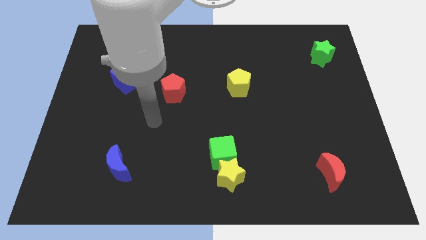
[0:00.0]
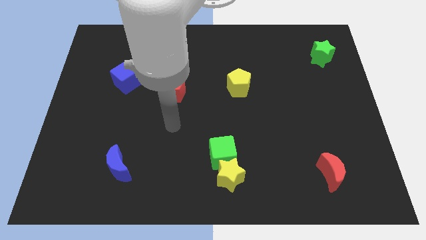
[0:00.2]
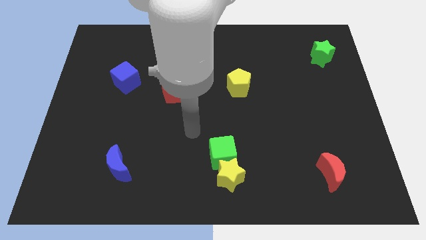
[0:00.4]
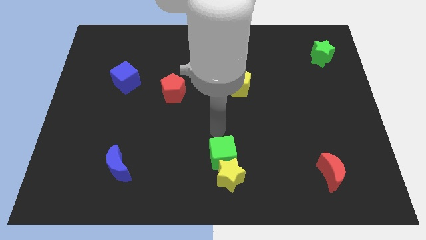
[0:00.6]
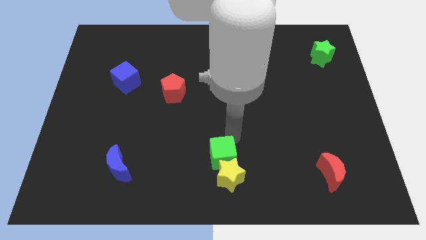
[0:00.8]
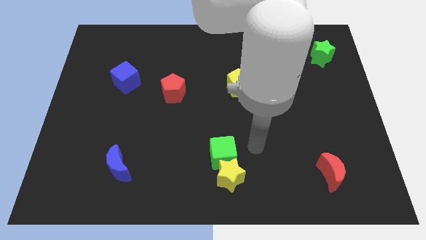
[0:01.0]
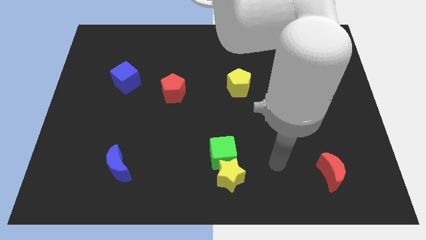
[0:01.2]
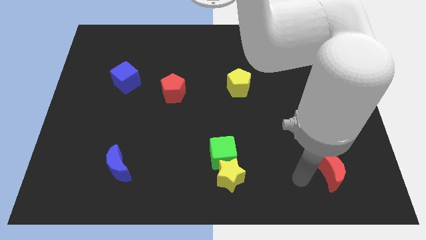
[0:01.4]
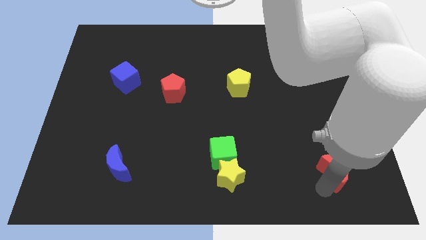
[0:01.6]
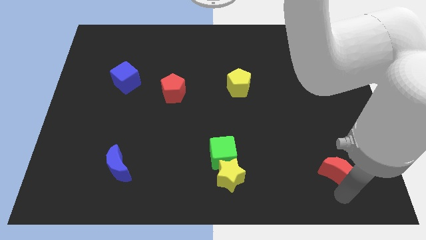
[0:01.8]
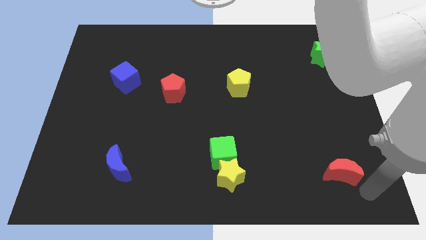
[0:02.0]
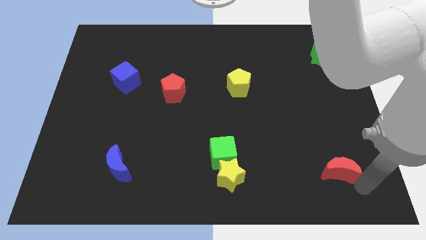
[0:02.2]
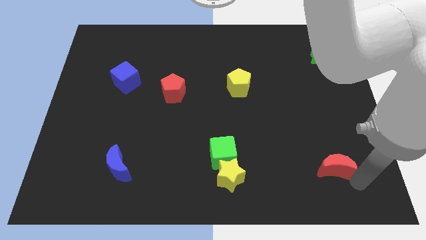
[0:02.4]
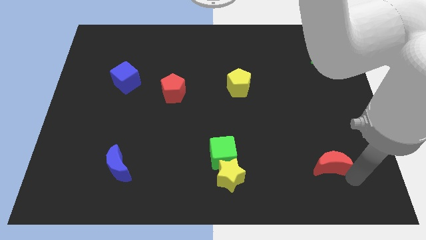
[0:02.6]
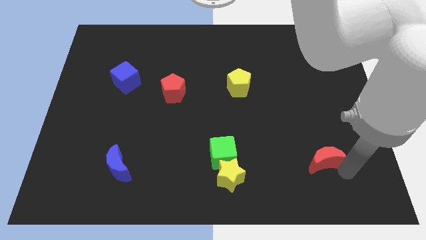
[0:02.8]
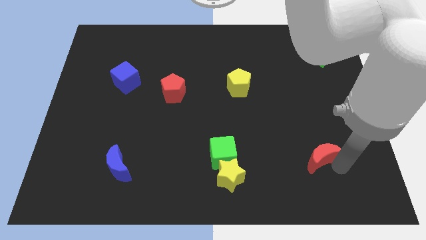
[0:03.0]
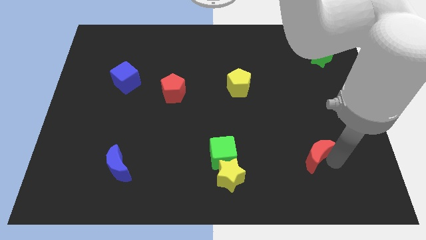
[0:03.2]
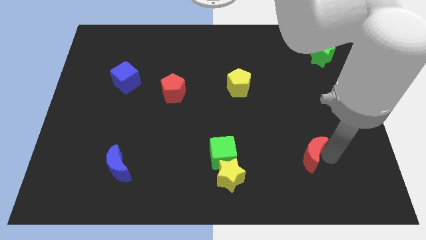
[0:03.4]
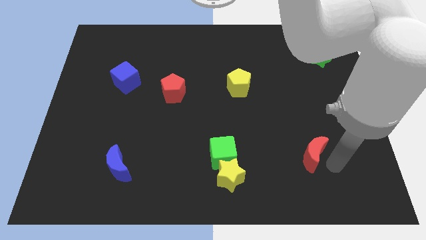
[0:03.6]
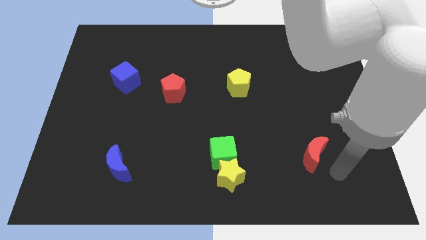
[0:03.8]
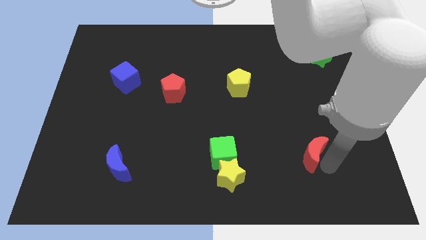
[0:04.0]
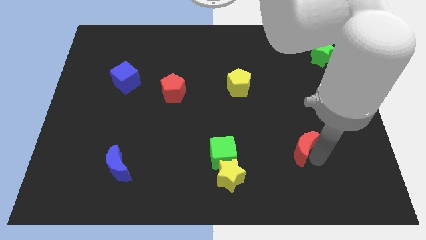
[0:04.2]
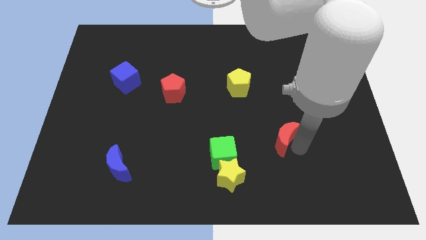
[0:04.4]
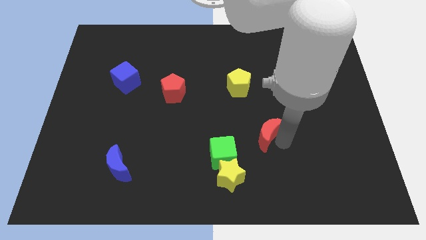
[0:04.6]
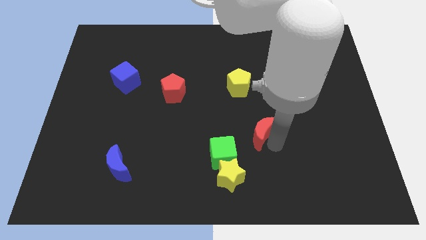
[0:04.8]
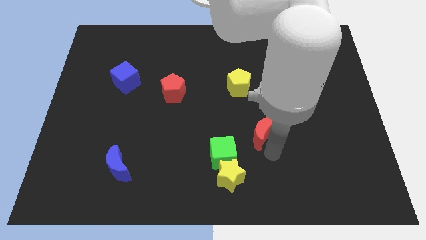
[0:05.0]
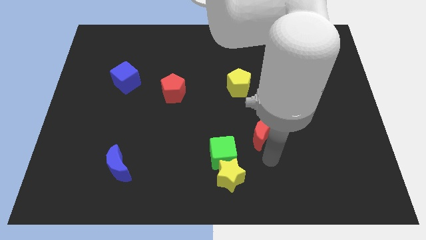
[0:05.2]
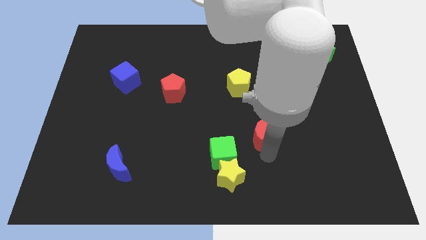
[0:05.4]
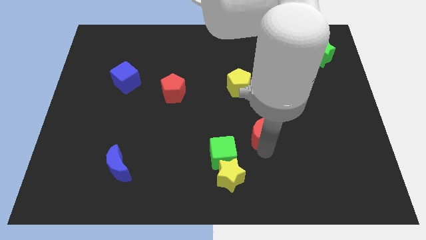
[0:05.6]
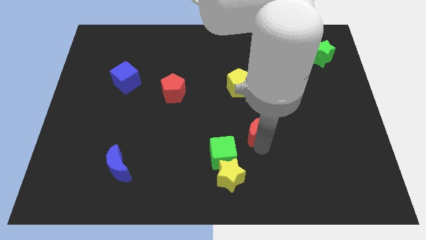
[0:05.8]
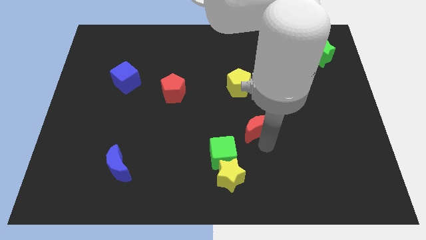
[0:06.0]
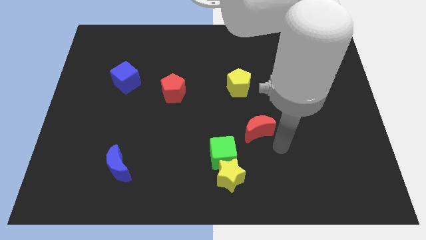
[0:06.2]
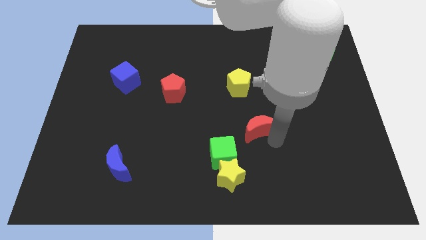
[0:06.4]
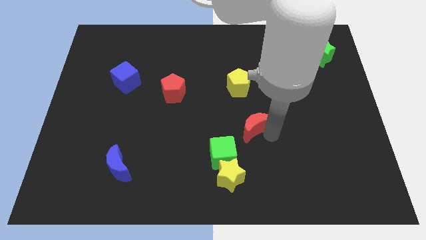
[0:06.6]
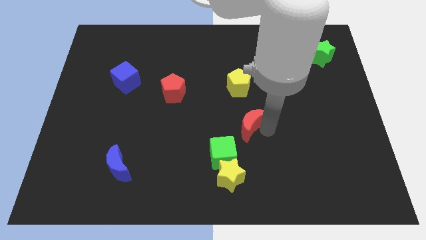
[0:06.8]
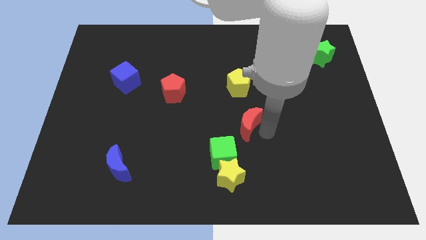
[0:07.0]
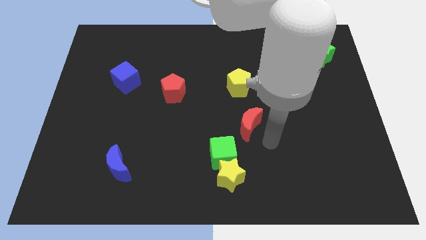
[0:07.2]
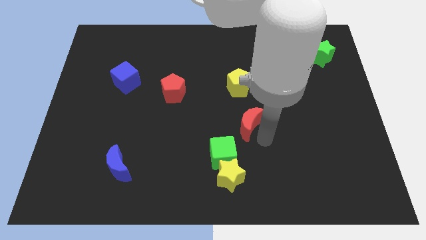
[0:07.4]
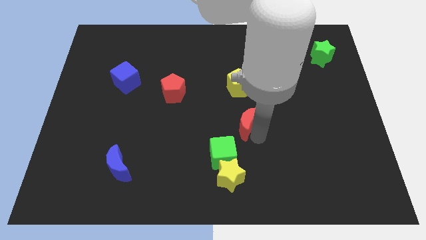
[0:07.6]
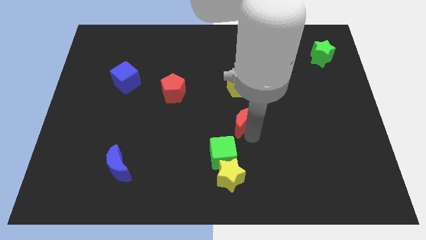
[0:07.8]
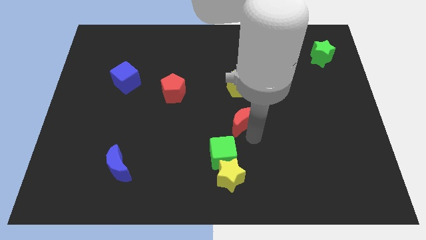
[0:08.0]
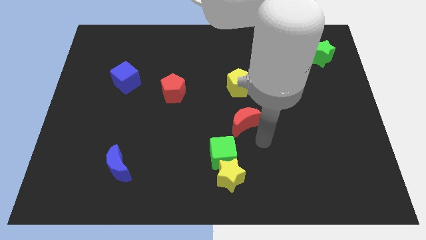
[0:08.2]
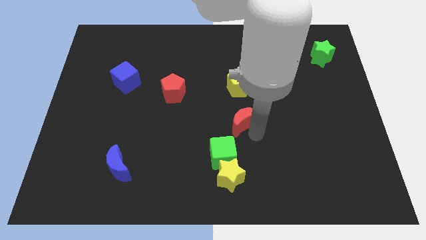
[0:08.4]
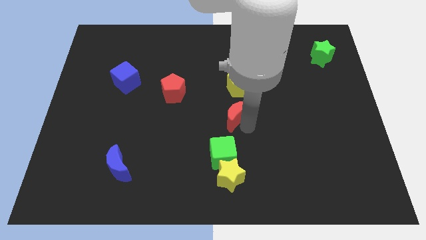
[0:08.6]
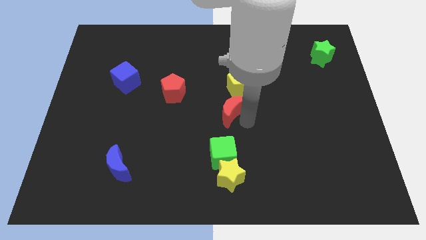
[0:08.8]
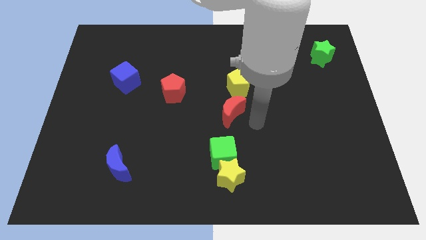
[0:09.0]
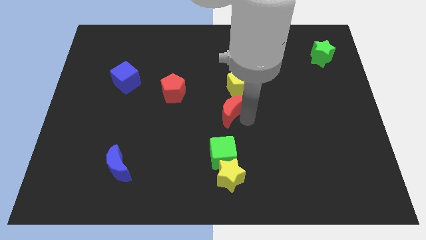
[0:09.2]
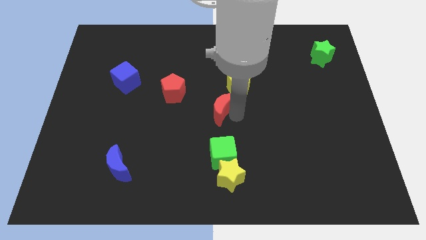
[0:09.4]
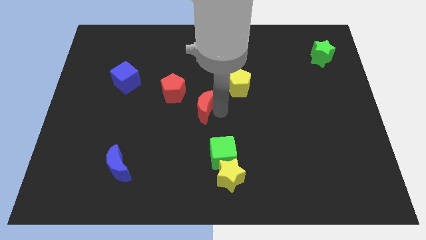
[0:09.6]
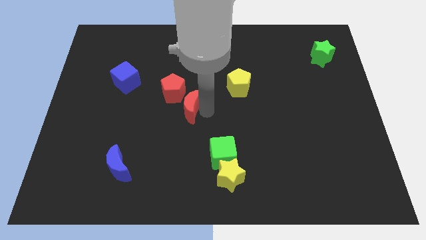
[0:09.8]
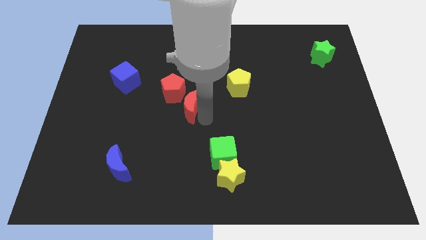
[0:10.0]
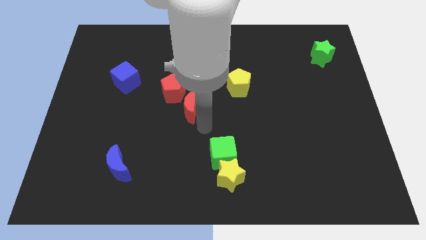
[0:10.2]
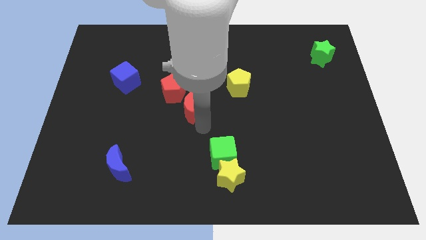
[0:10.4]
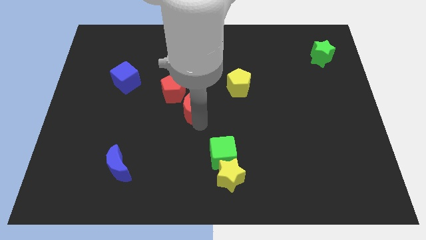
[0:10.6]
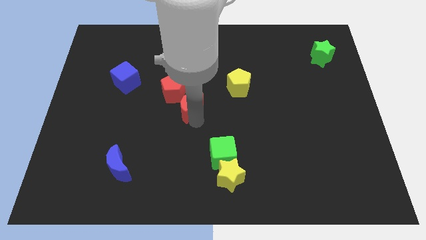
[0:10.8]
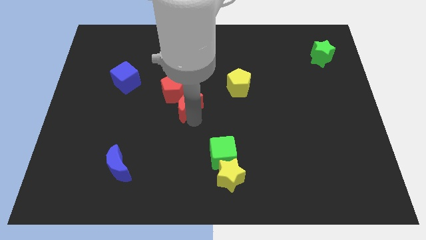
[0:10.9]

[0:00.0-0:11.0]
push the red moon to the red pentagon

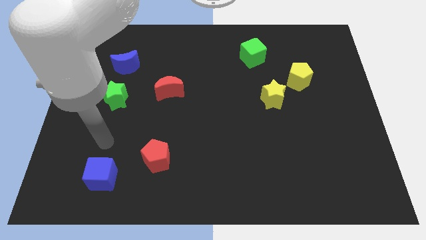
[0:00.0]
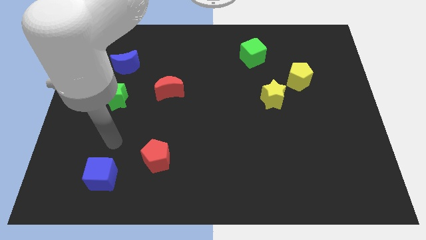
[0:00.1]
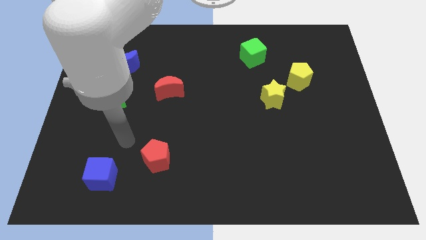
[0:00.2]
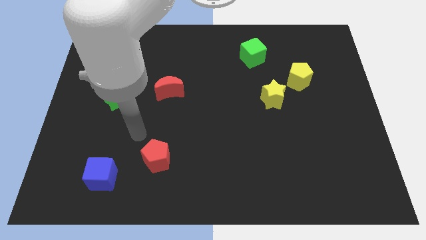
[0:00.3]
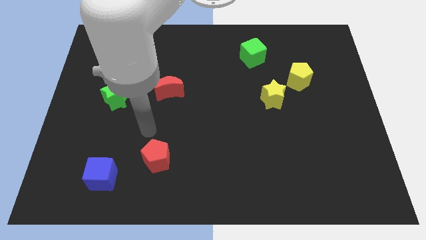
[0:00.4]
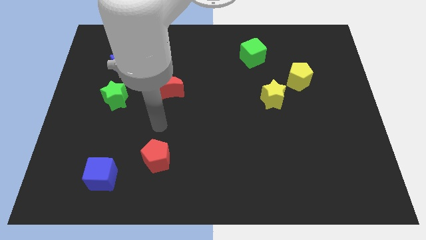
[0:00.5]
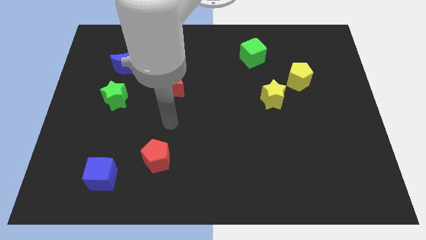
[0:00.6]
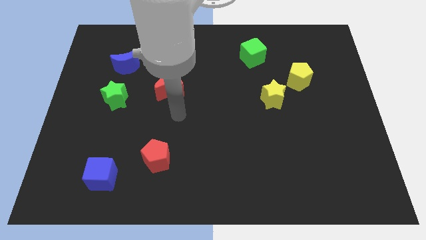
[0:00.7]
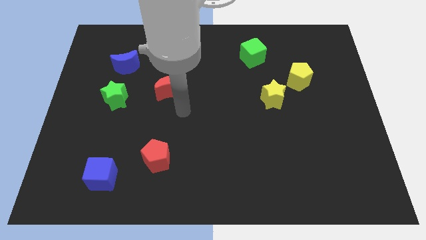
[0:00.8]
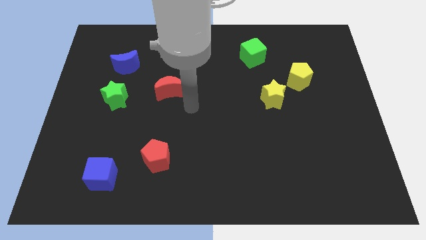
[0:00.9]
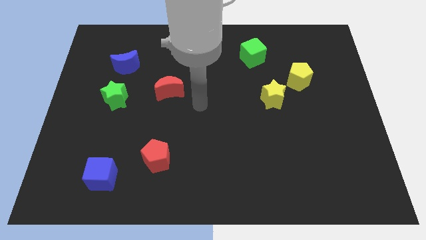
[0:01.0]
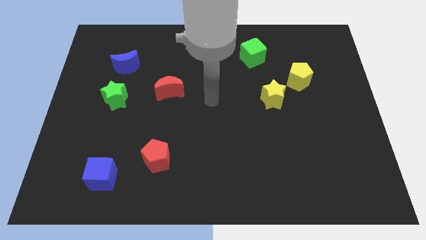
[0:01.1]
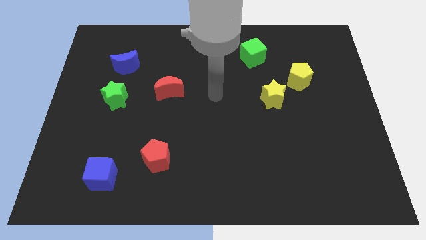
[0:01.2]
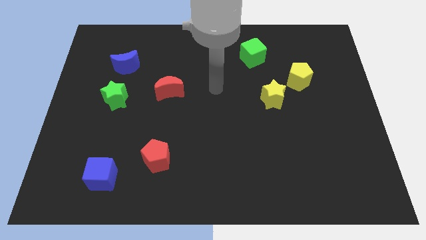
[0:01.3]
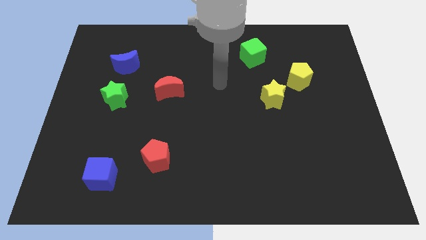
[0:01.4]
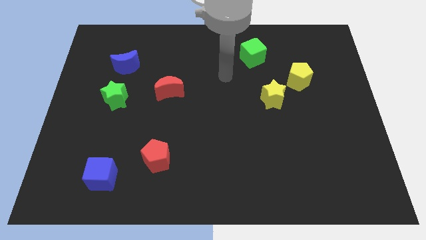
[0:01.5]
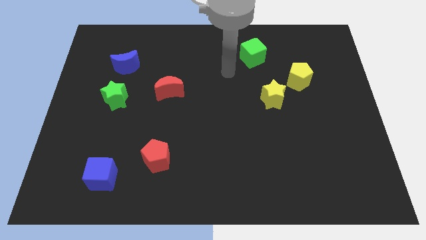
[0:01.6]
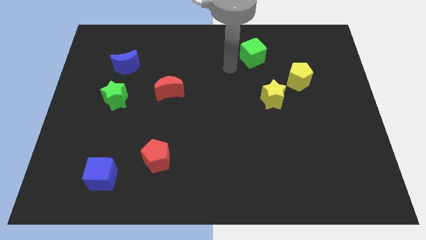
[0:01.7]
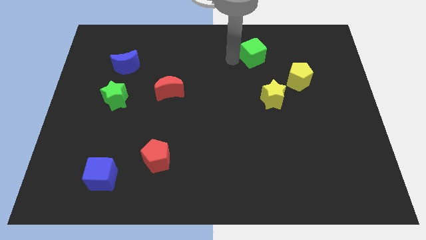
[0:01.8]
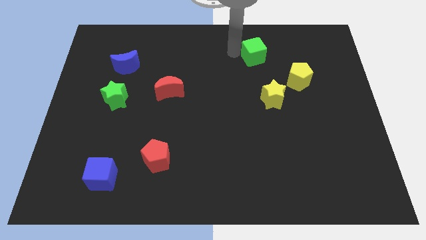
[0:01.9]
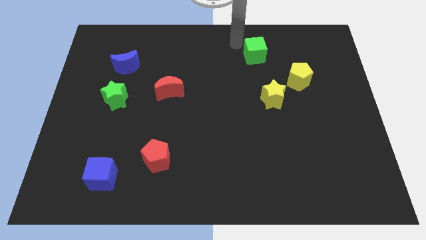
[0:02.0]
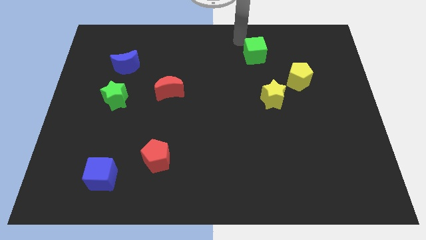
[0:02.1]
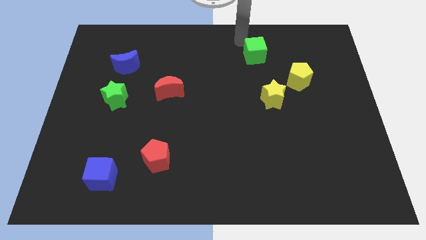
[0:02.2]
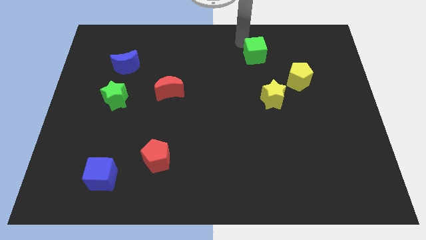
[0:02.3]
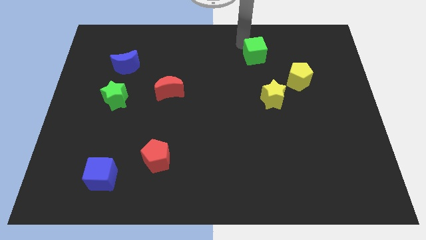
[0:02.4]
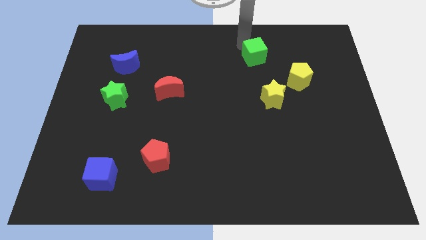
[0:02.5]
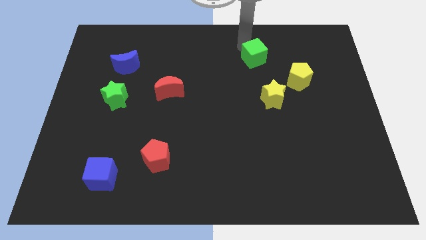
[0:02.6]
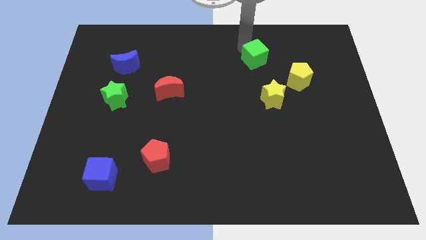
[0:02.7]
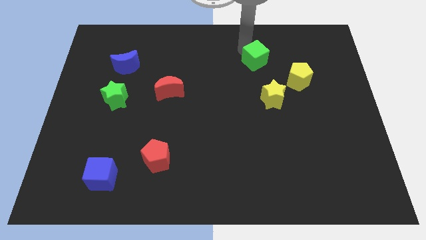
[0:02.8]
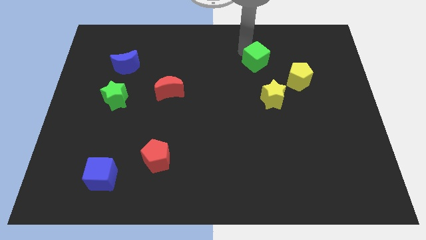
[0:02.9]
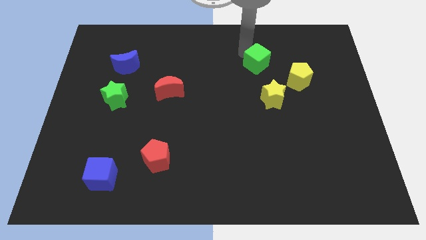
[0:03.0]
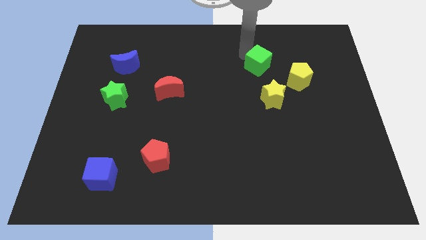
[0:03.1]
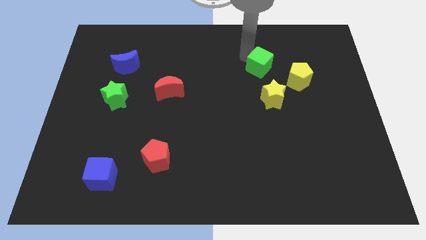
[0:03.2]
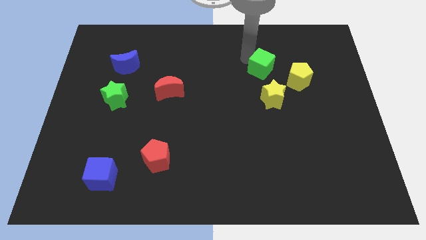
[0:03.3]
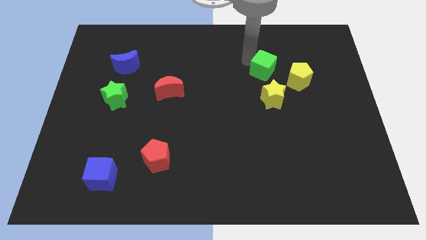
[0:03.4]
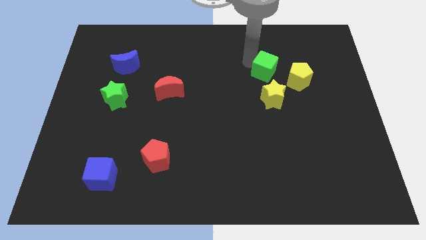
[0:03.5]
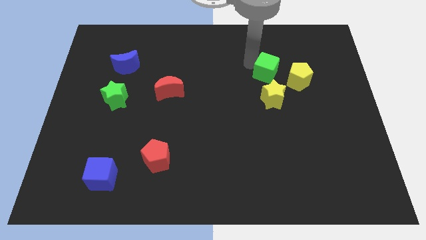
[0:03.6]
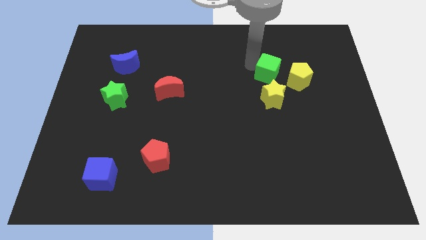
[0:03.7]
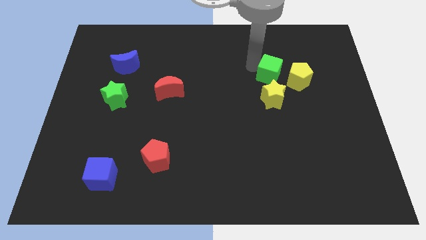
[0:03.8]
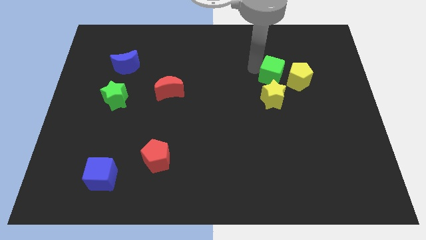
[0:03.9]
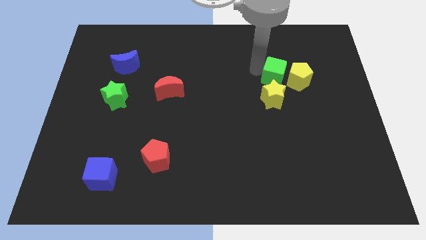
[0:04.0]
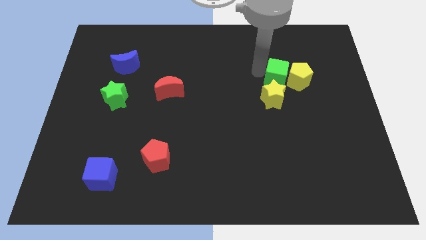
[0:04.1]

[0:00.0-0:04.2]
move the green cube next to the yellow pentagon
